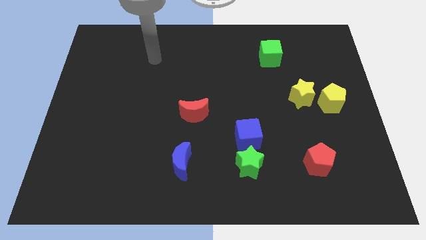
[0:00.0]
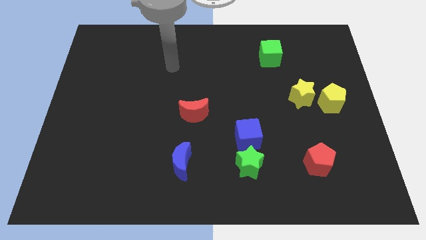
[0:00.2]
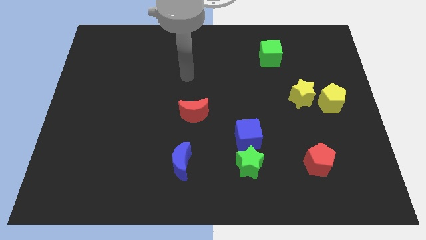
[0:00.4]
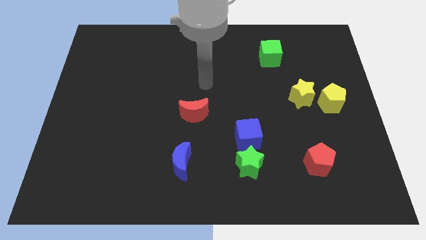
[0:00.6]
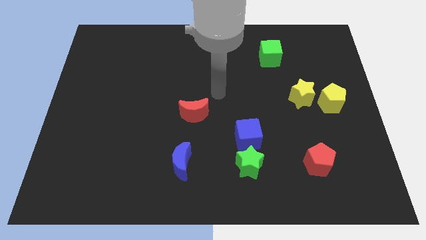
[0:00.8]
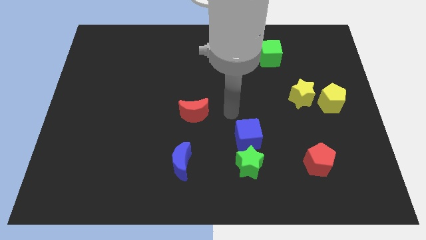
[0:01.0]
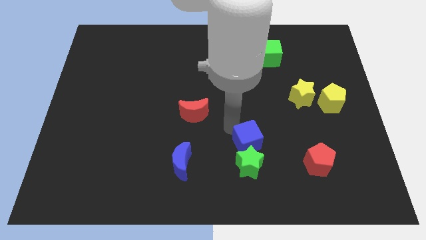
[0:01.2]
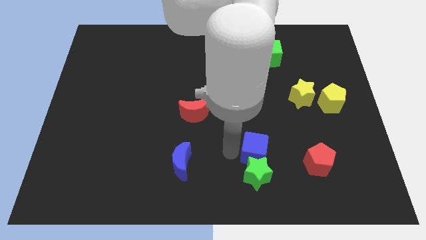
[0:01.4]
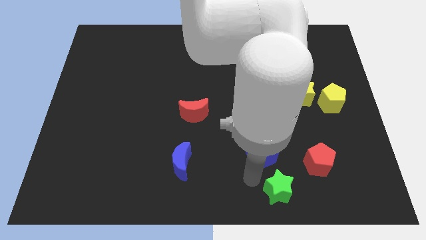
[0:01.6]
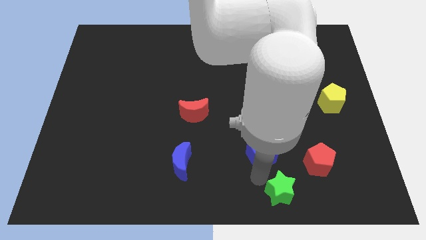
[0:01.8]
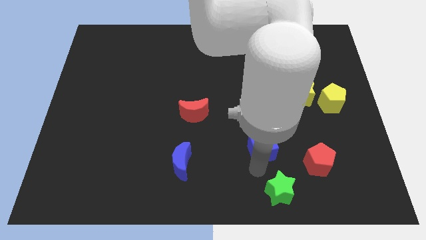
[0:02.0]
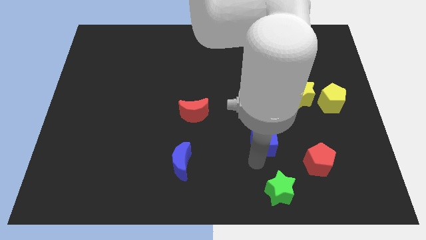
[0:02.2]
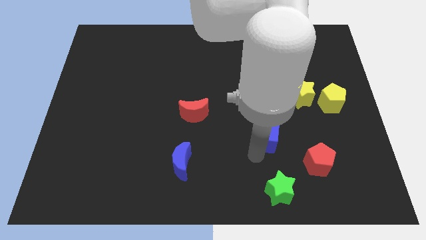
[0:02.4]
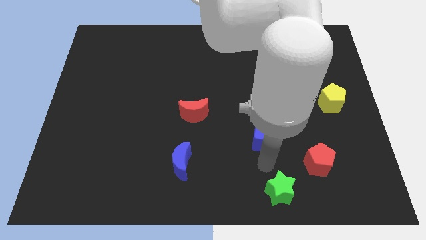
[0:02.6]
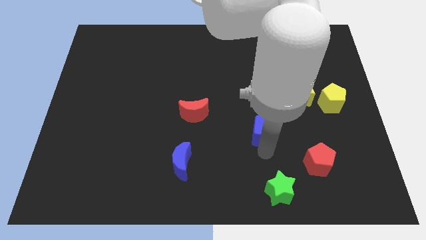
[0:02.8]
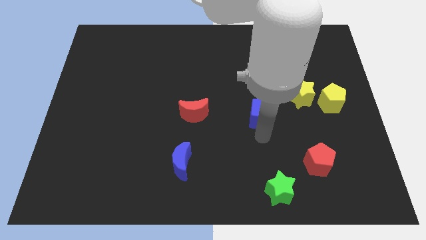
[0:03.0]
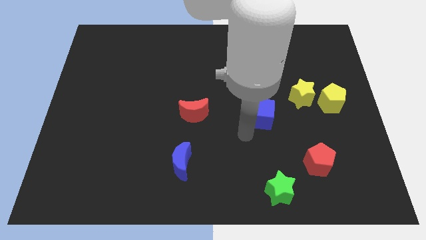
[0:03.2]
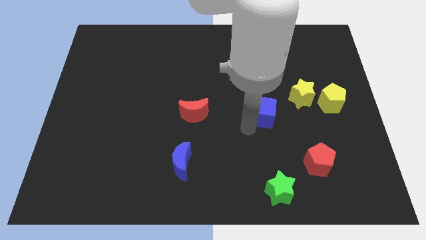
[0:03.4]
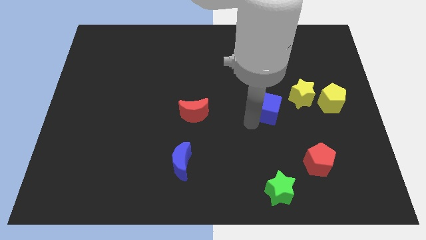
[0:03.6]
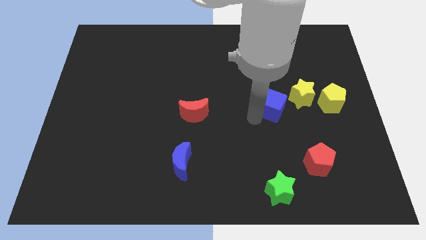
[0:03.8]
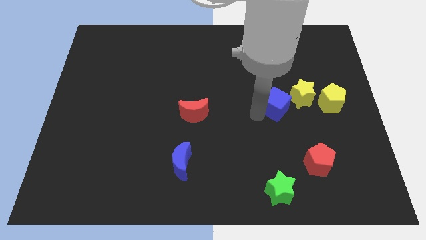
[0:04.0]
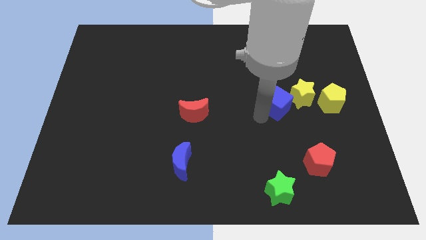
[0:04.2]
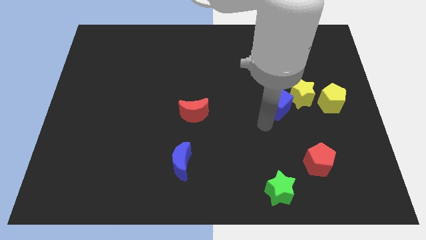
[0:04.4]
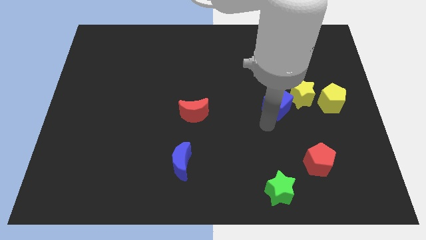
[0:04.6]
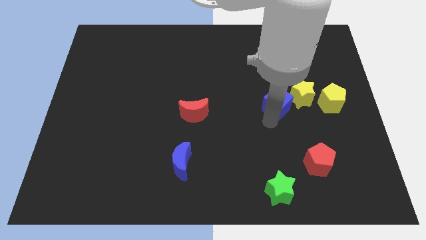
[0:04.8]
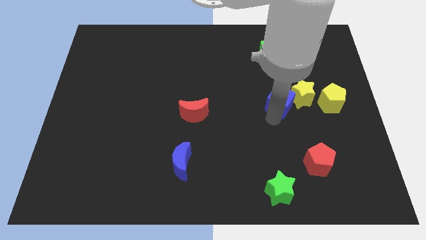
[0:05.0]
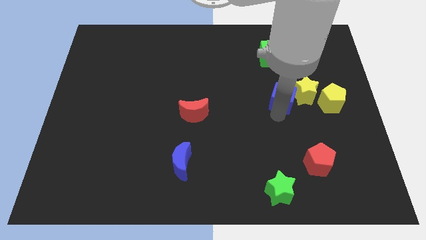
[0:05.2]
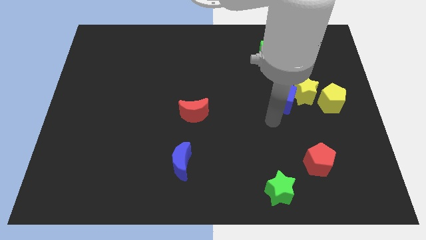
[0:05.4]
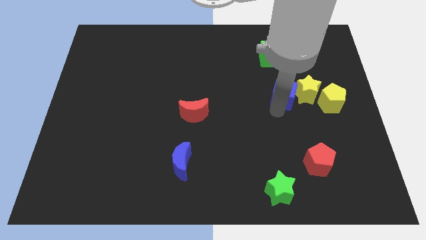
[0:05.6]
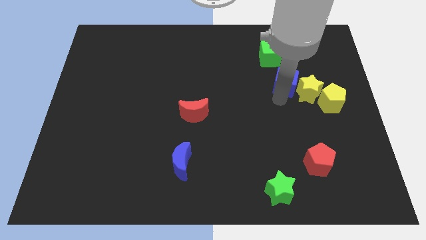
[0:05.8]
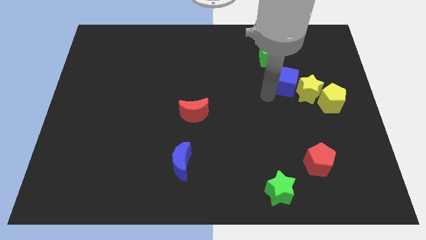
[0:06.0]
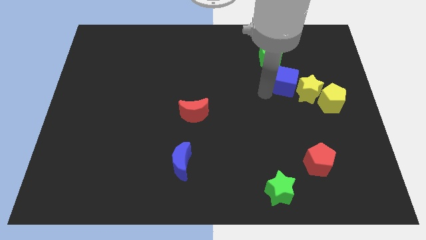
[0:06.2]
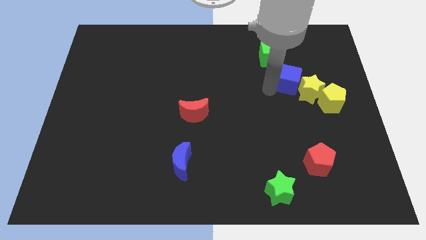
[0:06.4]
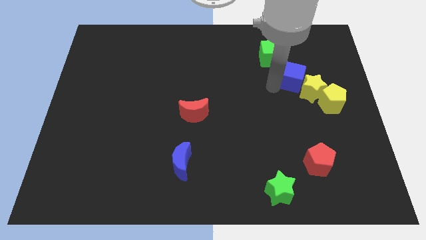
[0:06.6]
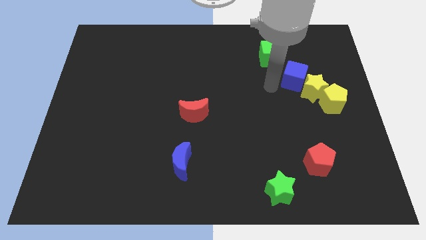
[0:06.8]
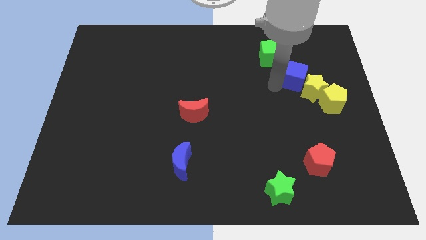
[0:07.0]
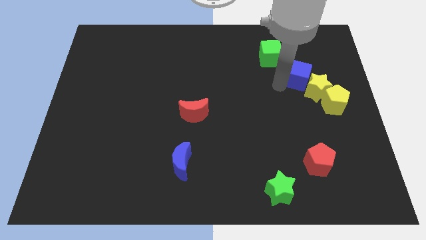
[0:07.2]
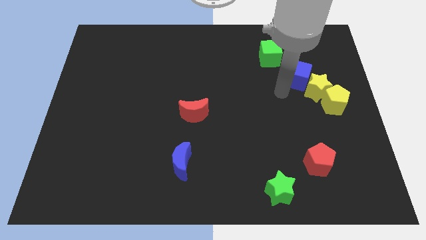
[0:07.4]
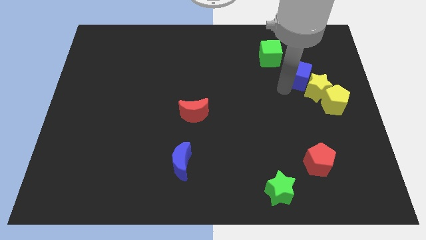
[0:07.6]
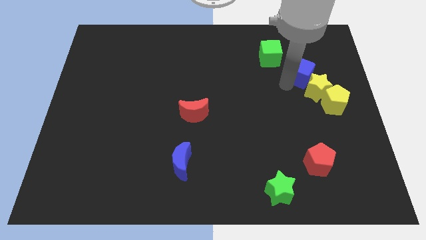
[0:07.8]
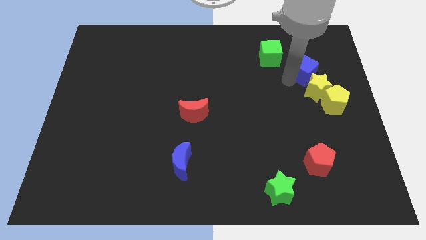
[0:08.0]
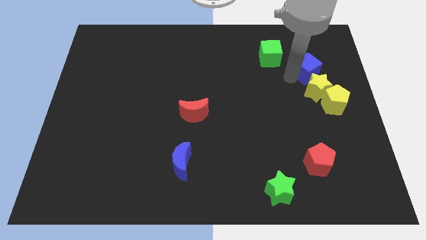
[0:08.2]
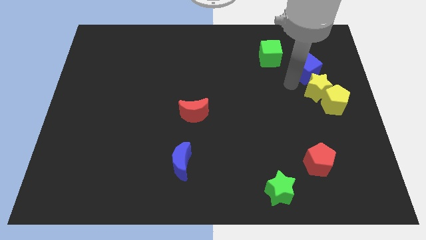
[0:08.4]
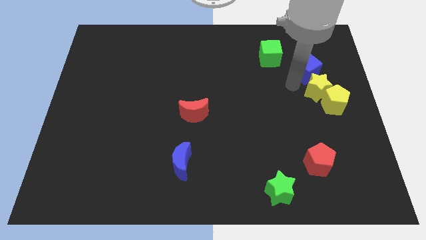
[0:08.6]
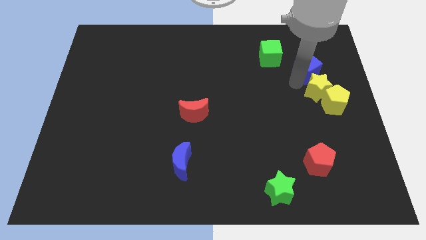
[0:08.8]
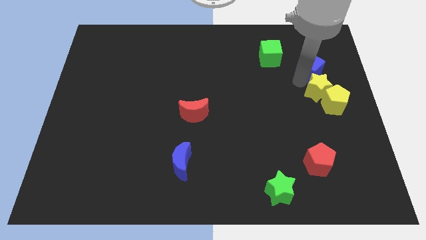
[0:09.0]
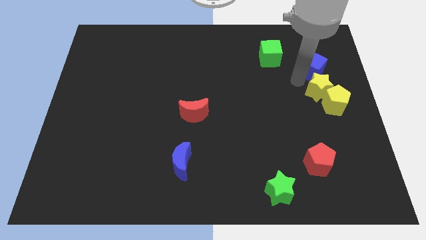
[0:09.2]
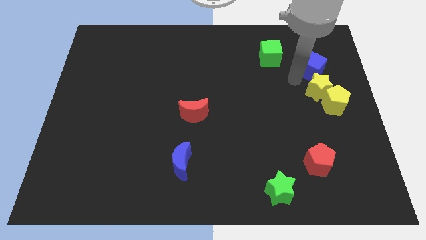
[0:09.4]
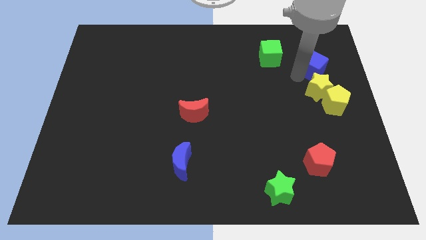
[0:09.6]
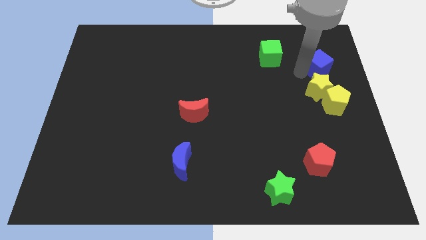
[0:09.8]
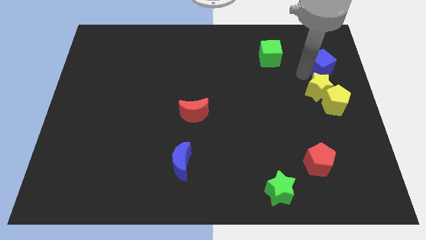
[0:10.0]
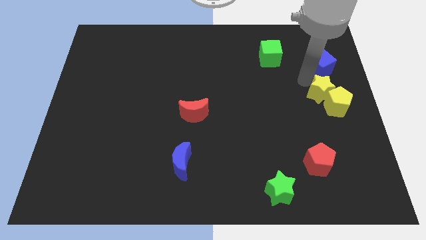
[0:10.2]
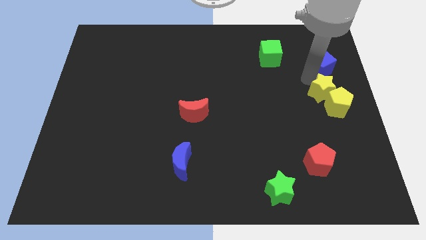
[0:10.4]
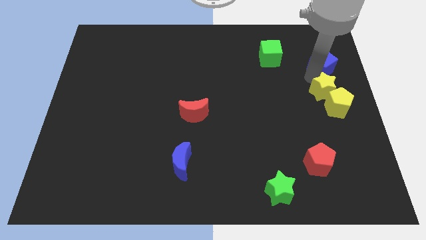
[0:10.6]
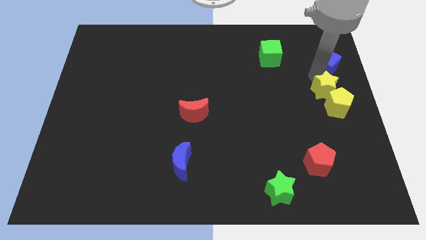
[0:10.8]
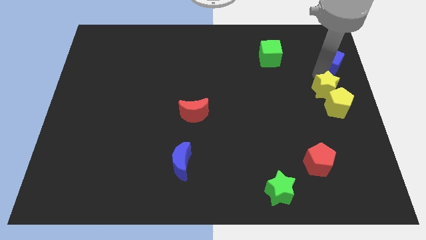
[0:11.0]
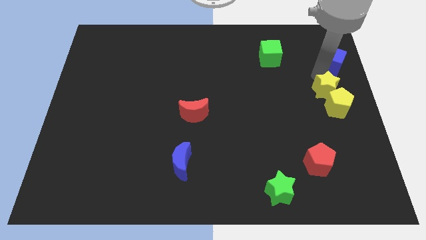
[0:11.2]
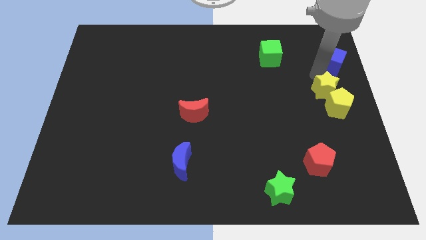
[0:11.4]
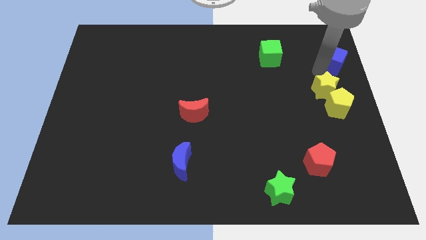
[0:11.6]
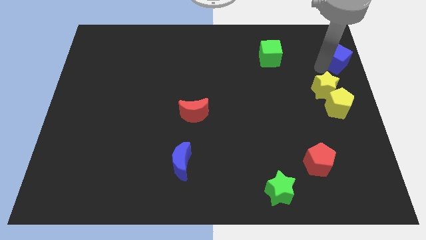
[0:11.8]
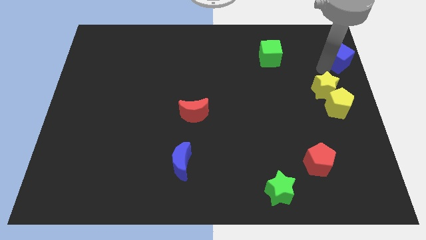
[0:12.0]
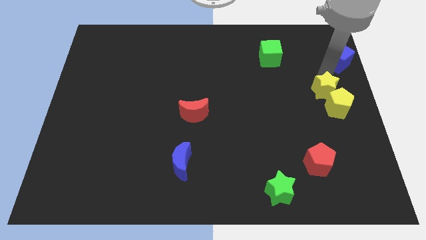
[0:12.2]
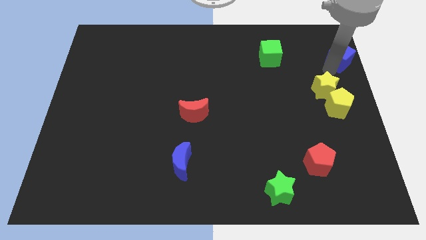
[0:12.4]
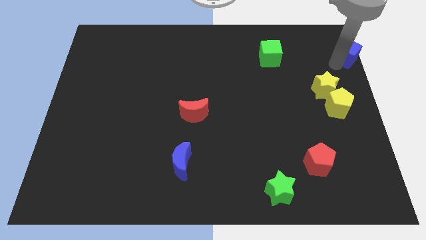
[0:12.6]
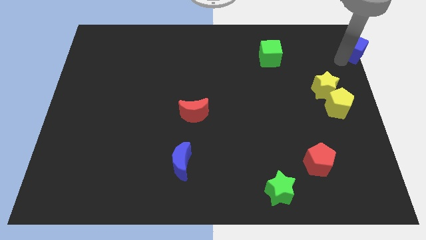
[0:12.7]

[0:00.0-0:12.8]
move the blue cube to the top right of the board
